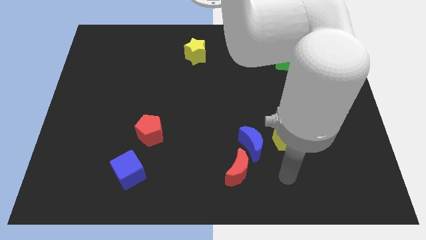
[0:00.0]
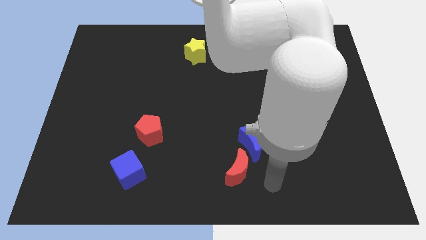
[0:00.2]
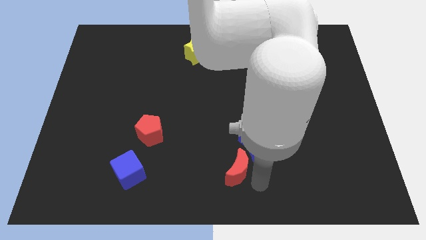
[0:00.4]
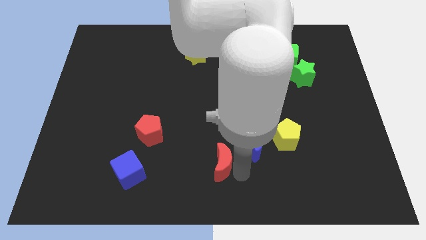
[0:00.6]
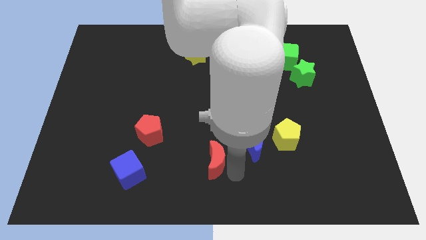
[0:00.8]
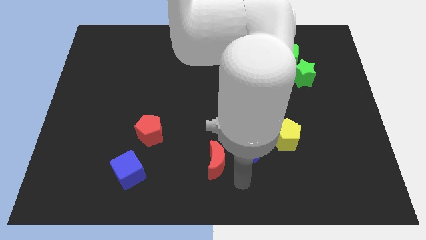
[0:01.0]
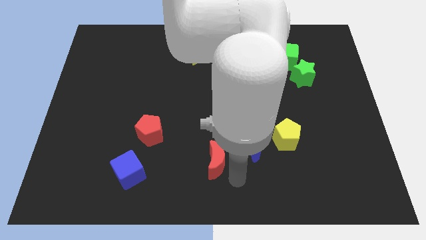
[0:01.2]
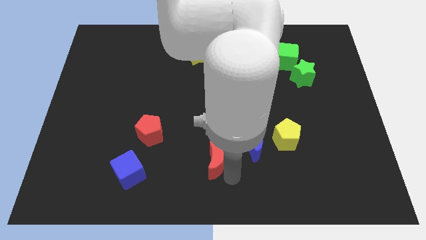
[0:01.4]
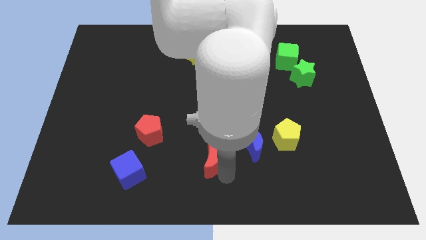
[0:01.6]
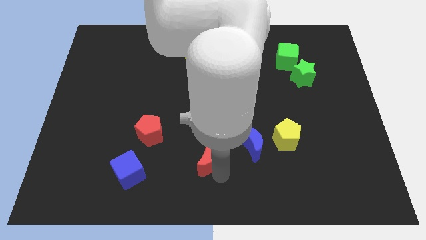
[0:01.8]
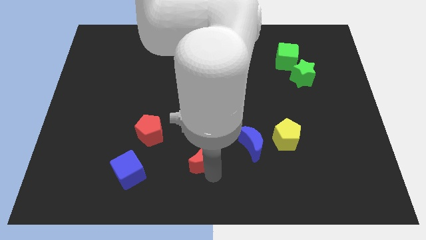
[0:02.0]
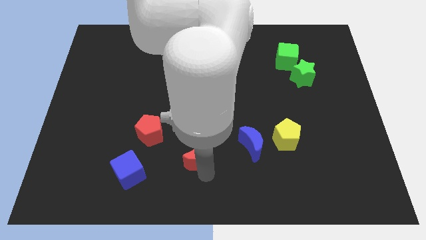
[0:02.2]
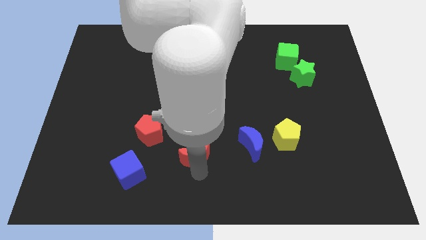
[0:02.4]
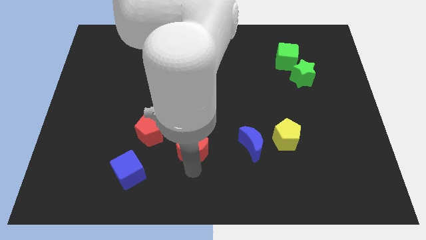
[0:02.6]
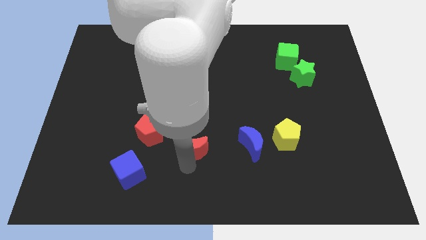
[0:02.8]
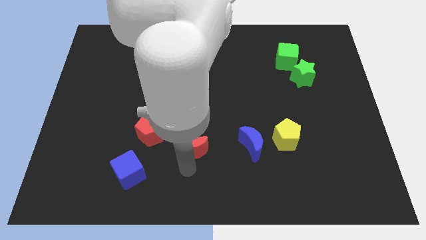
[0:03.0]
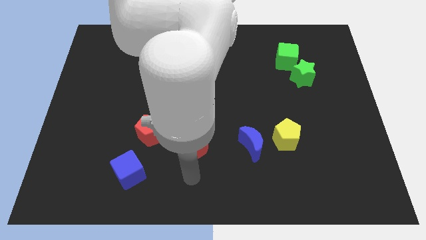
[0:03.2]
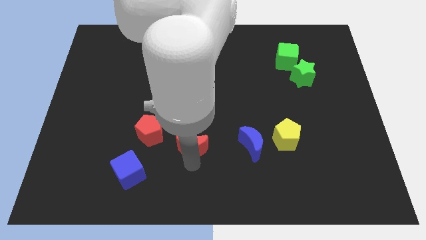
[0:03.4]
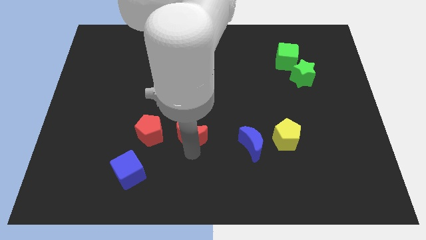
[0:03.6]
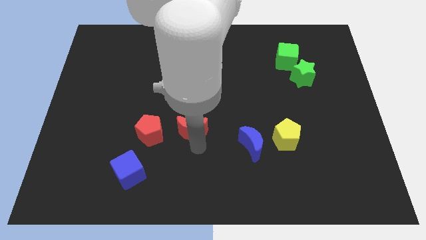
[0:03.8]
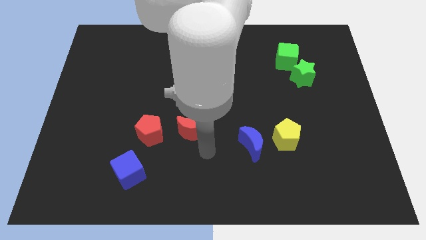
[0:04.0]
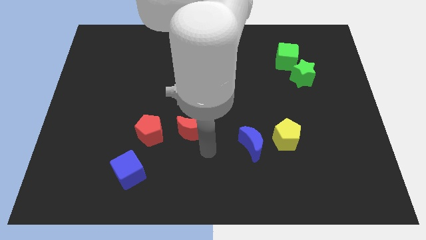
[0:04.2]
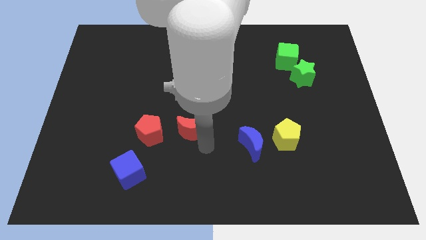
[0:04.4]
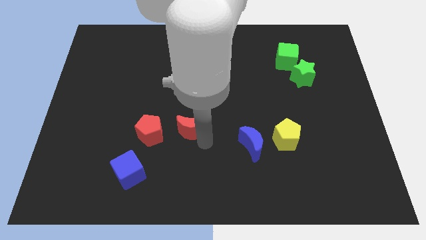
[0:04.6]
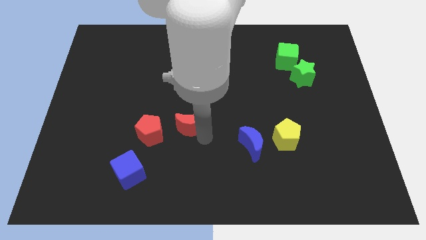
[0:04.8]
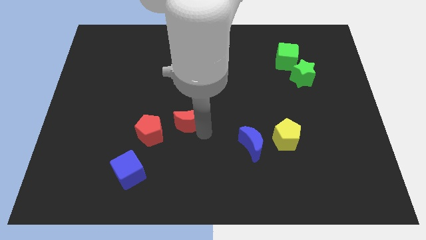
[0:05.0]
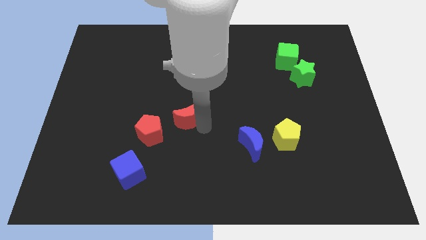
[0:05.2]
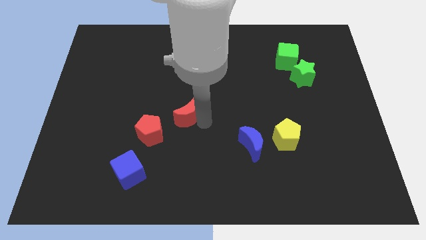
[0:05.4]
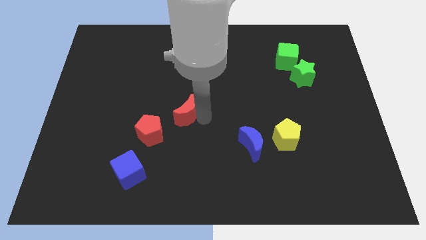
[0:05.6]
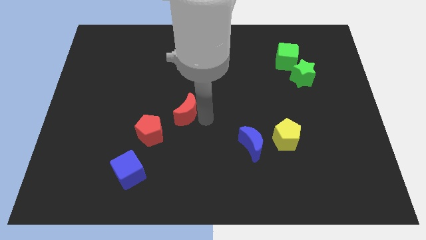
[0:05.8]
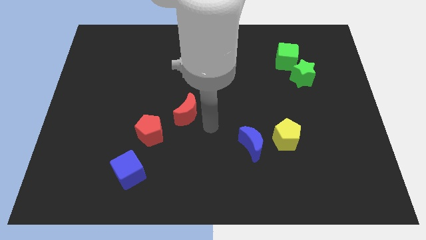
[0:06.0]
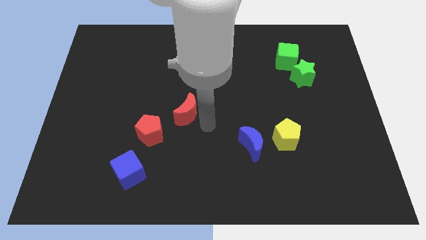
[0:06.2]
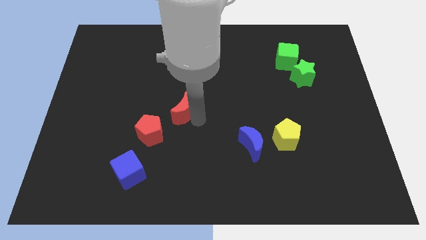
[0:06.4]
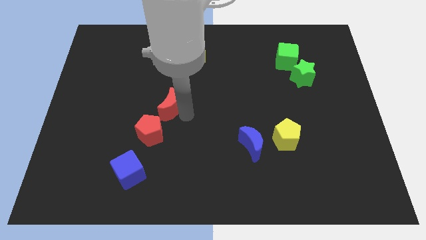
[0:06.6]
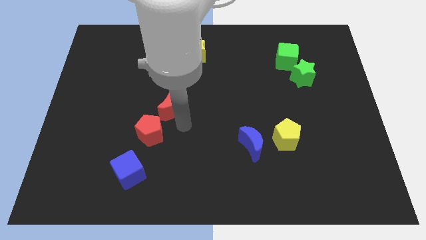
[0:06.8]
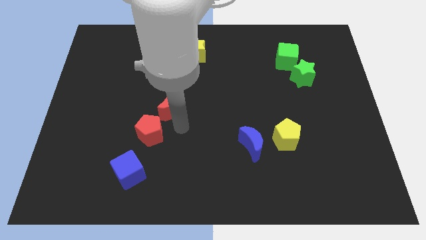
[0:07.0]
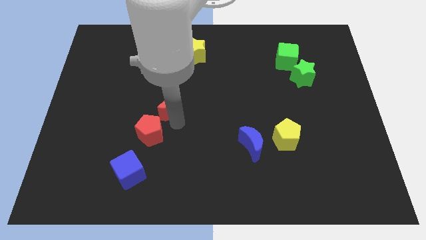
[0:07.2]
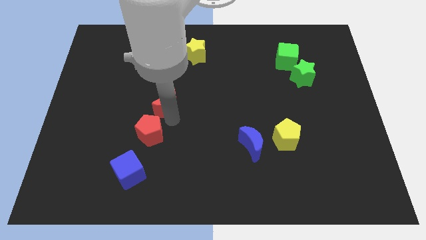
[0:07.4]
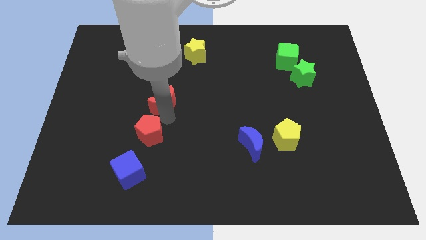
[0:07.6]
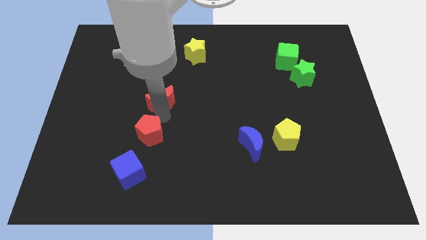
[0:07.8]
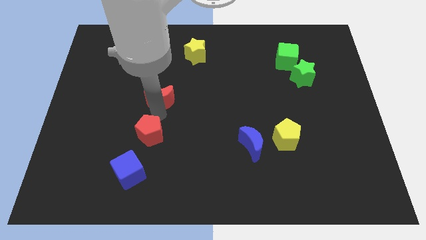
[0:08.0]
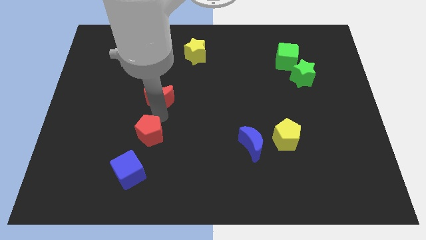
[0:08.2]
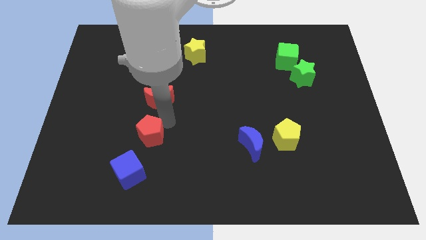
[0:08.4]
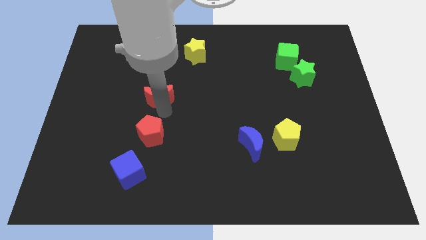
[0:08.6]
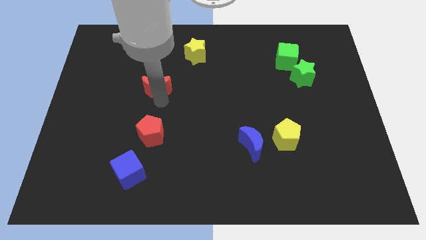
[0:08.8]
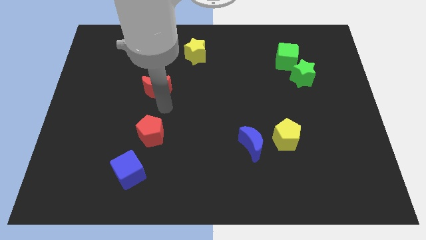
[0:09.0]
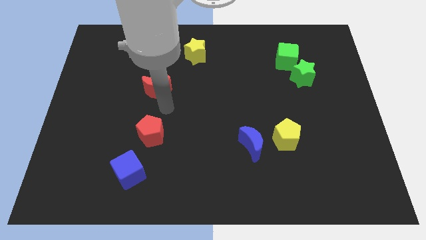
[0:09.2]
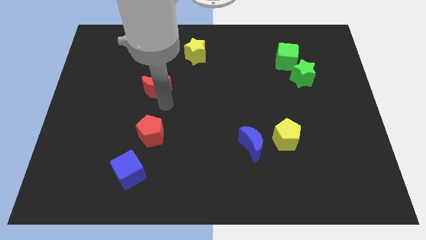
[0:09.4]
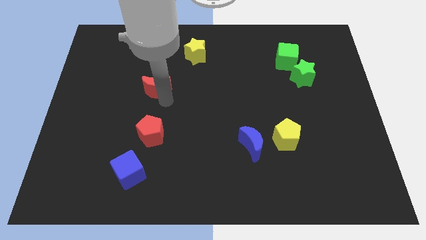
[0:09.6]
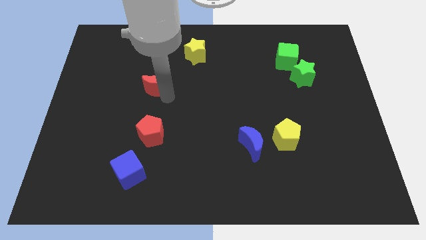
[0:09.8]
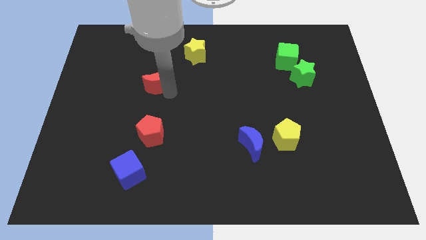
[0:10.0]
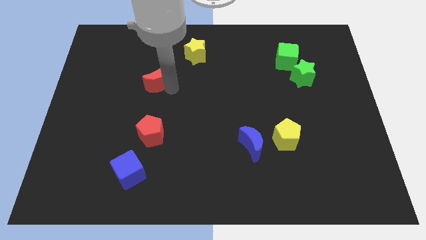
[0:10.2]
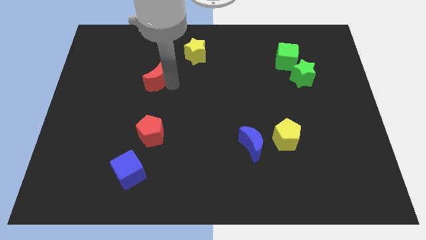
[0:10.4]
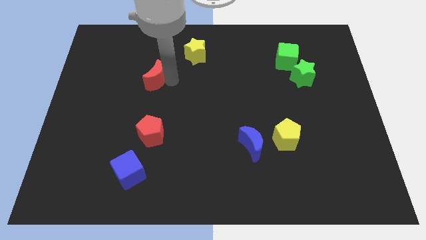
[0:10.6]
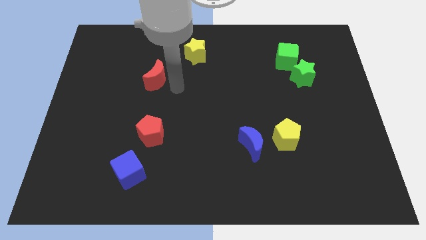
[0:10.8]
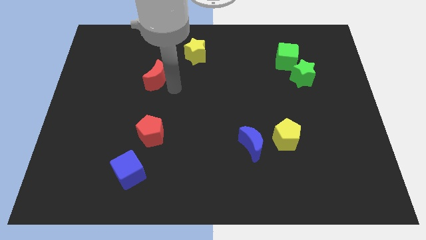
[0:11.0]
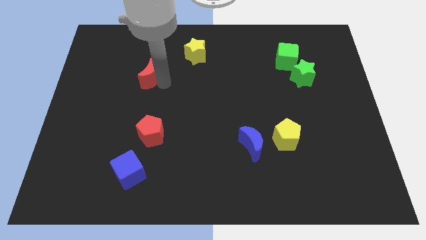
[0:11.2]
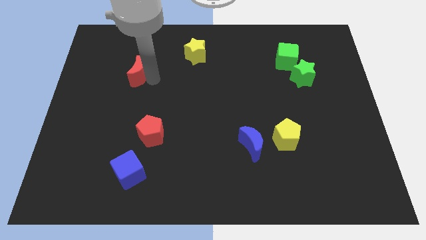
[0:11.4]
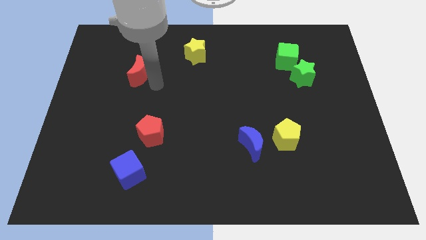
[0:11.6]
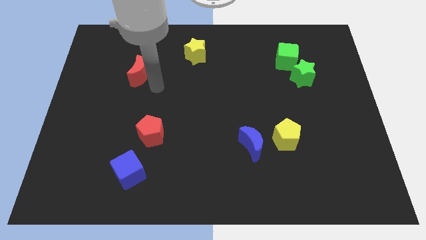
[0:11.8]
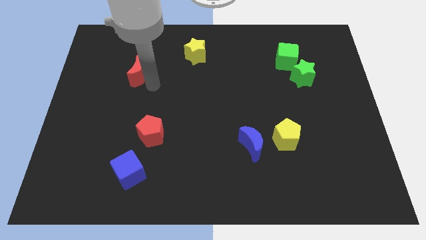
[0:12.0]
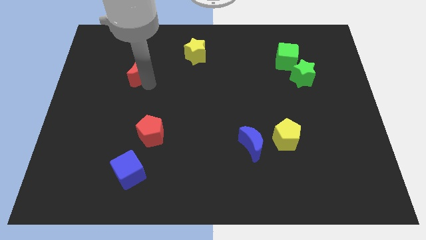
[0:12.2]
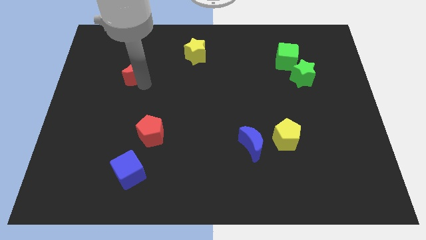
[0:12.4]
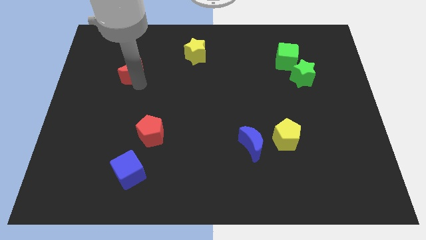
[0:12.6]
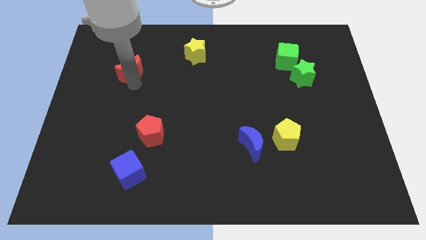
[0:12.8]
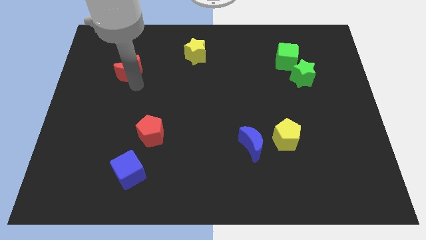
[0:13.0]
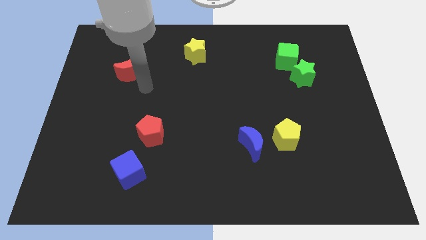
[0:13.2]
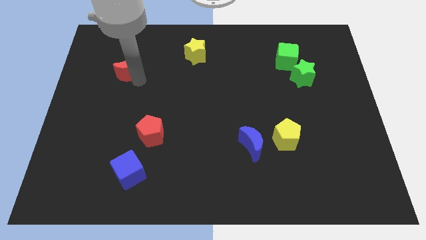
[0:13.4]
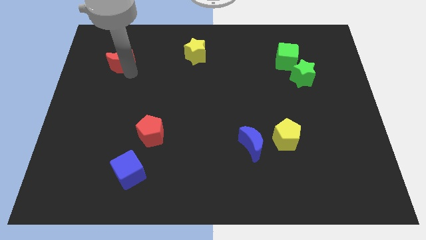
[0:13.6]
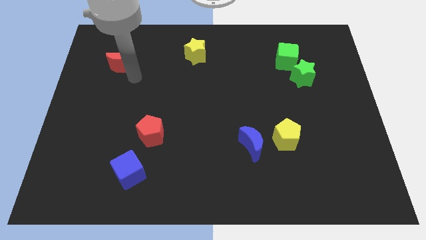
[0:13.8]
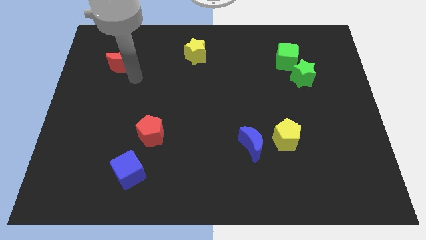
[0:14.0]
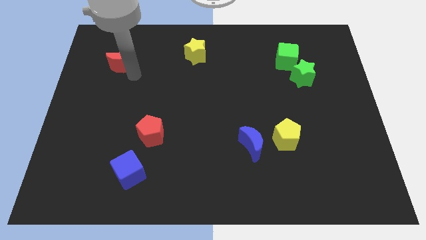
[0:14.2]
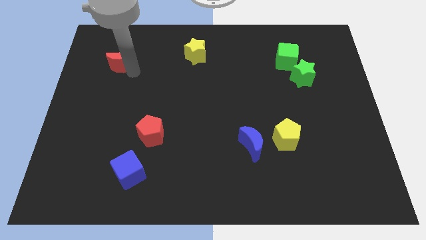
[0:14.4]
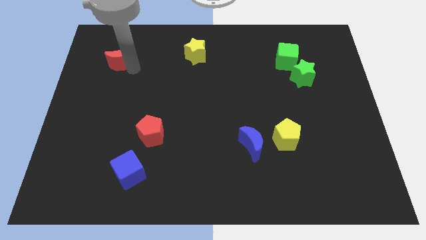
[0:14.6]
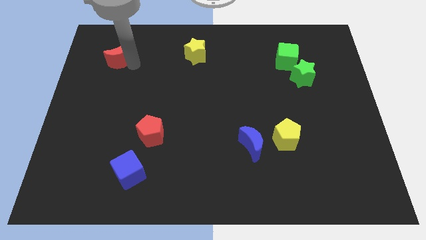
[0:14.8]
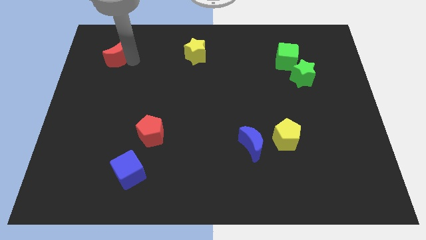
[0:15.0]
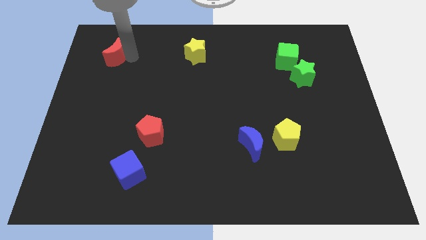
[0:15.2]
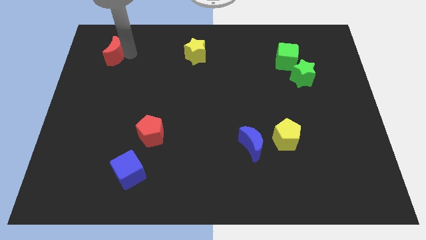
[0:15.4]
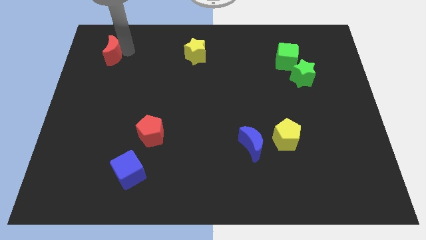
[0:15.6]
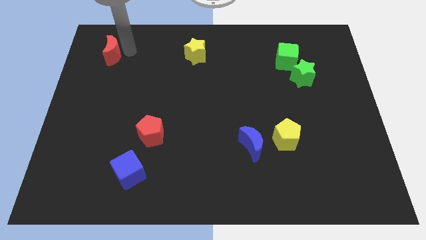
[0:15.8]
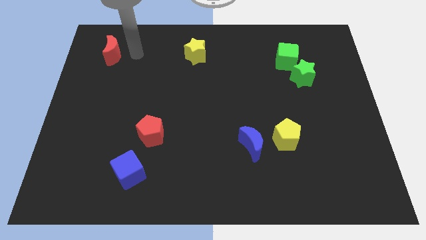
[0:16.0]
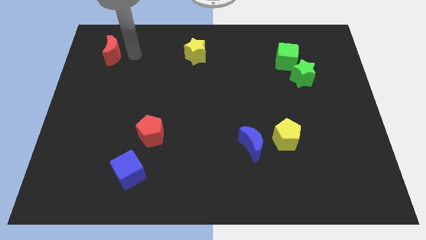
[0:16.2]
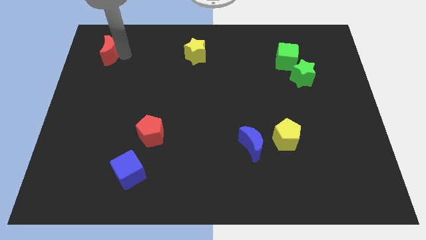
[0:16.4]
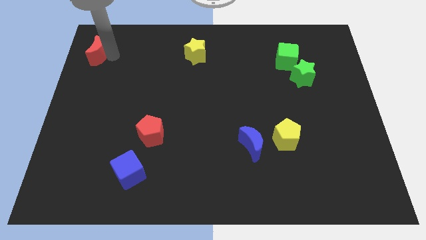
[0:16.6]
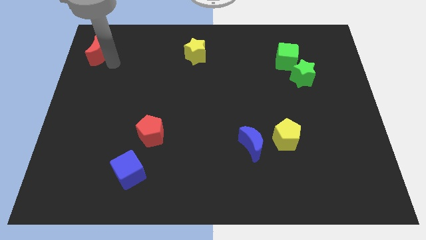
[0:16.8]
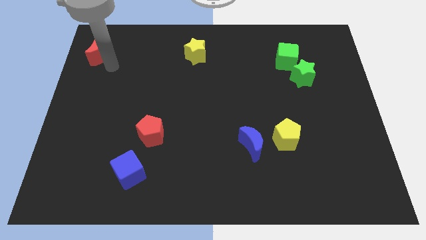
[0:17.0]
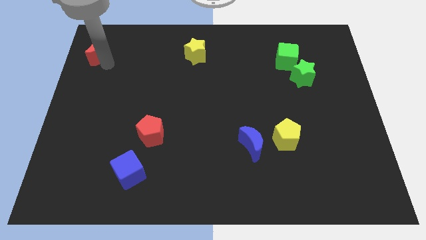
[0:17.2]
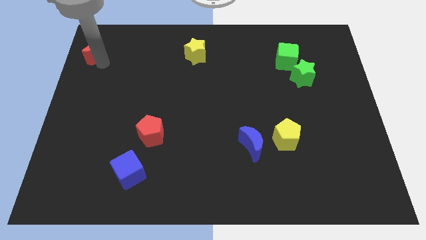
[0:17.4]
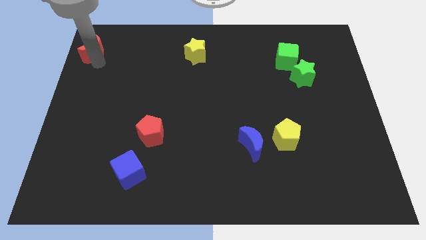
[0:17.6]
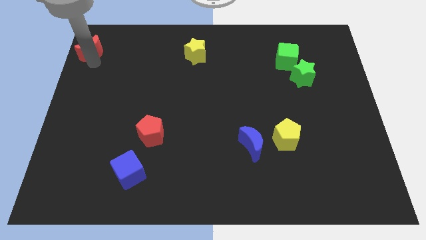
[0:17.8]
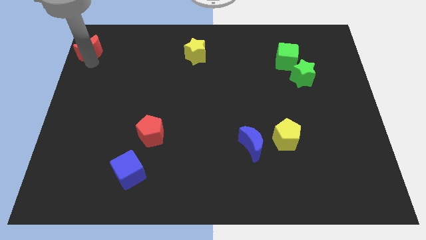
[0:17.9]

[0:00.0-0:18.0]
put the red moon to the top left of the board
